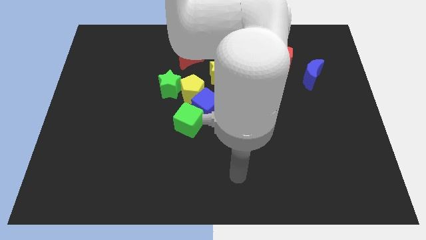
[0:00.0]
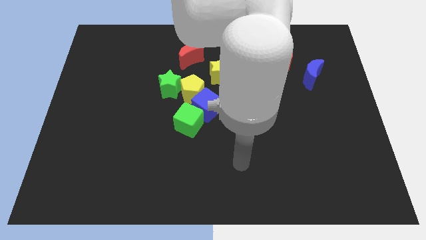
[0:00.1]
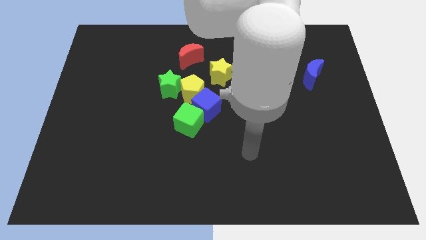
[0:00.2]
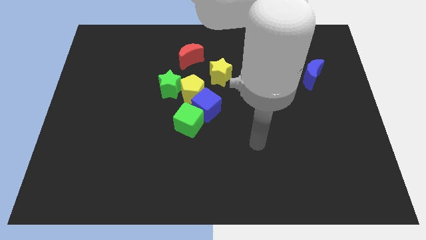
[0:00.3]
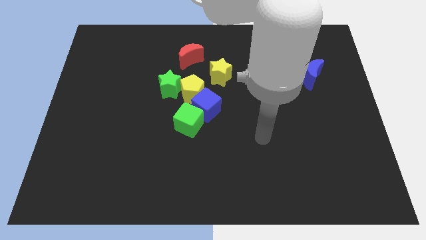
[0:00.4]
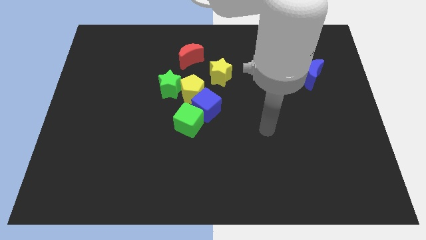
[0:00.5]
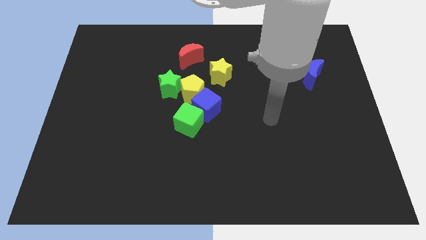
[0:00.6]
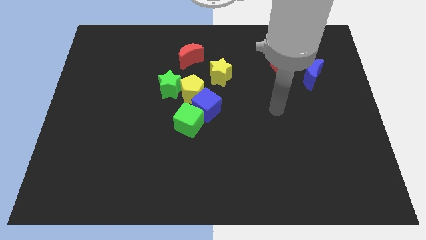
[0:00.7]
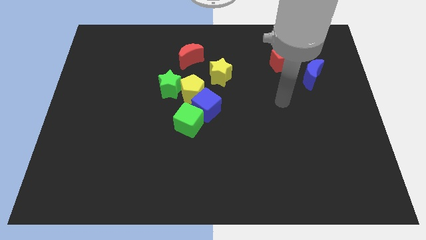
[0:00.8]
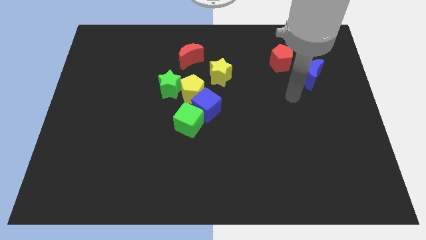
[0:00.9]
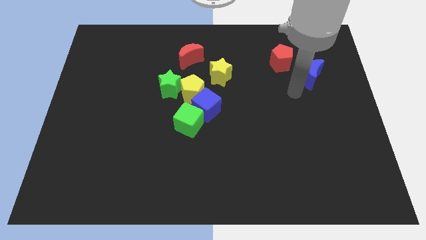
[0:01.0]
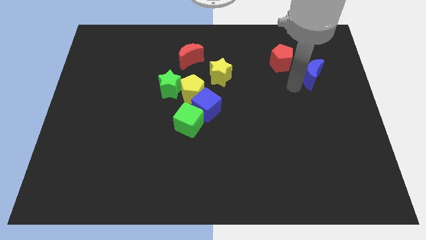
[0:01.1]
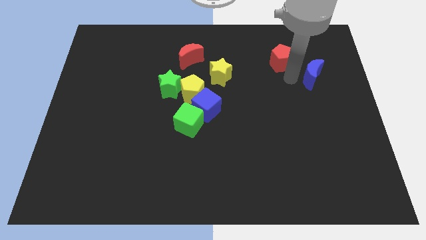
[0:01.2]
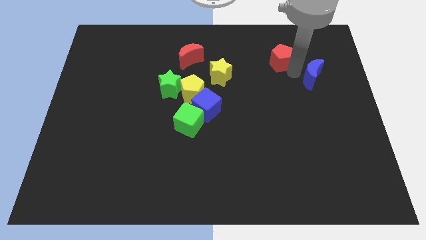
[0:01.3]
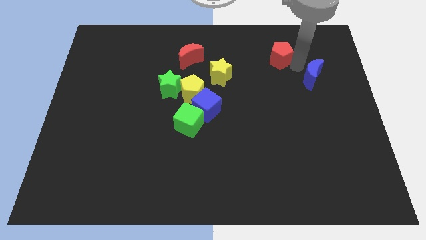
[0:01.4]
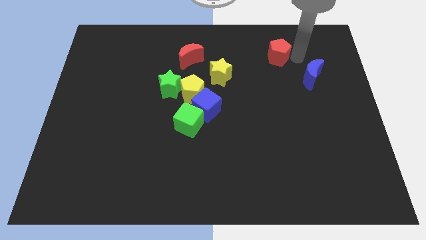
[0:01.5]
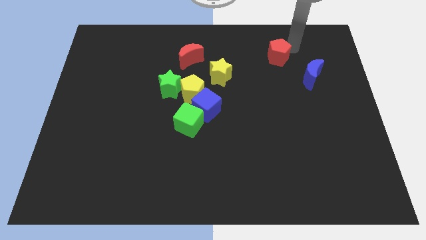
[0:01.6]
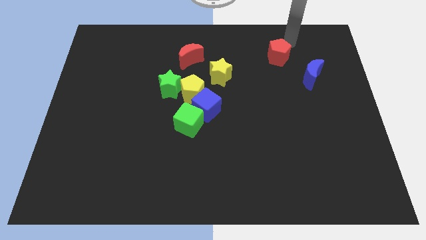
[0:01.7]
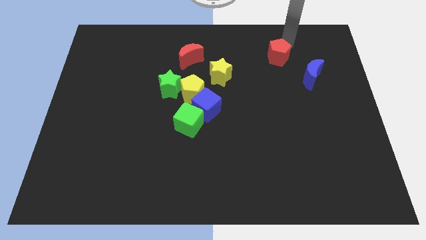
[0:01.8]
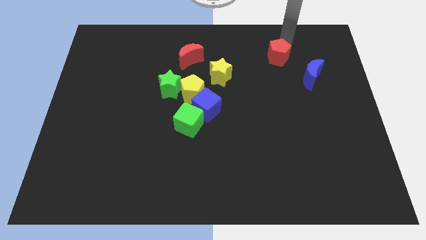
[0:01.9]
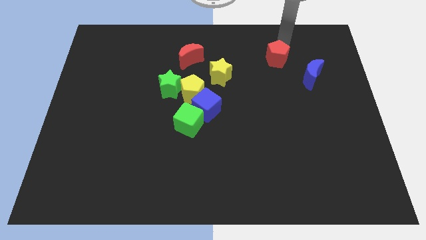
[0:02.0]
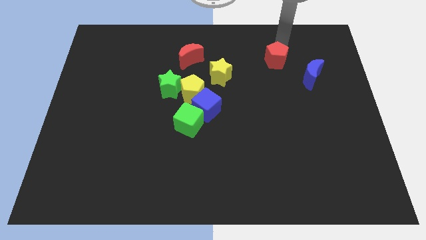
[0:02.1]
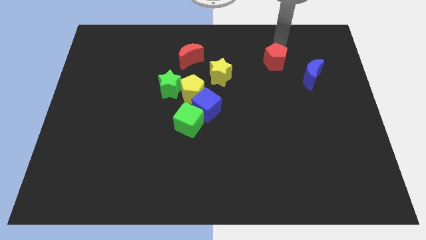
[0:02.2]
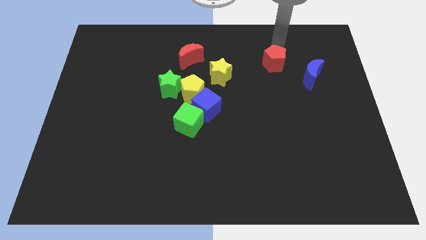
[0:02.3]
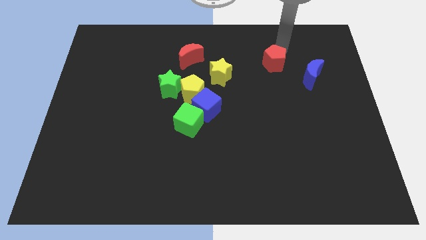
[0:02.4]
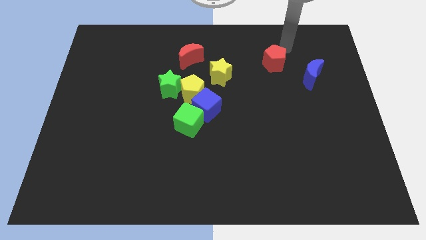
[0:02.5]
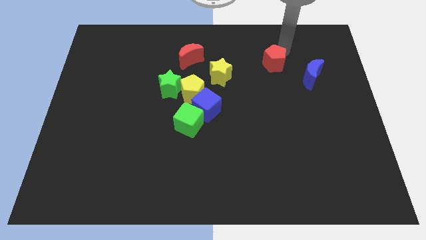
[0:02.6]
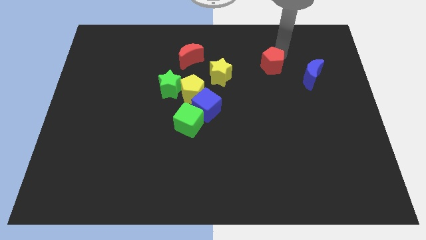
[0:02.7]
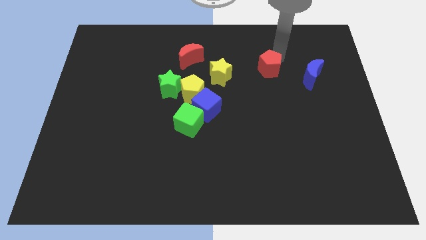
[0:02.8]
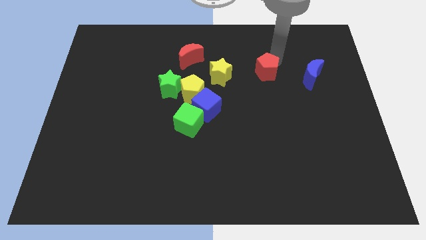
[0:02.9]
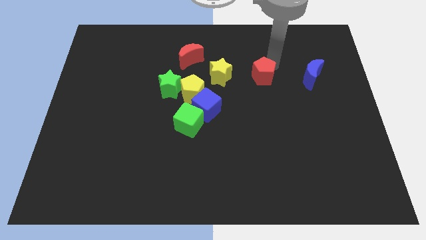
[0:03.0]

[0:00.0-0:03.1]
push the red pentagon downwards and to the left somewhat

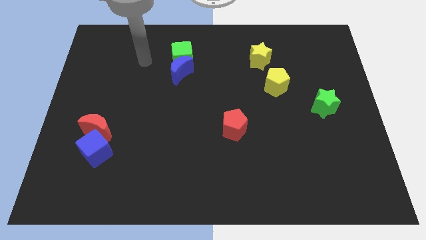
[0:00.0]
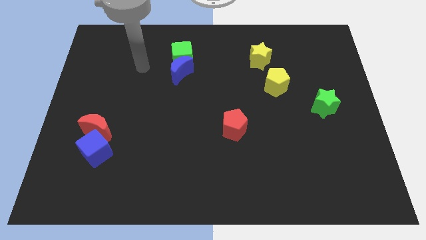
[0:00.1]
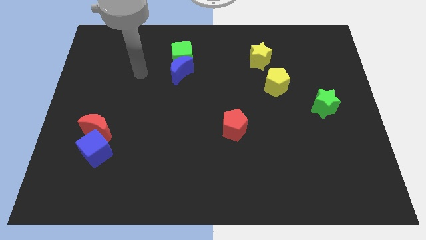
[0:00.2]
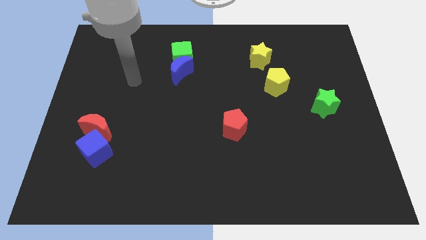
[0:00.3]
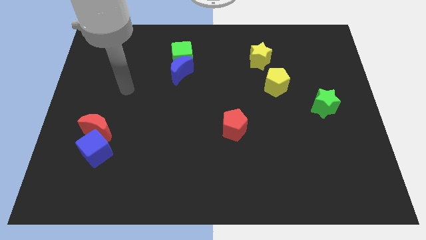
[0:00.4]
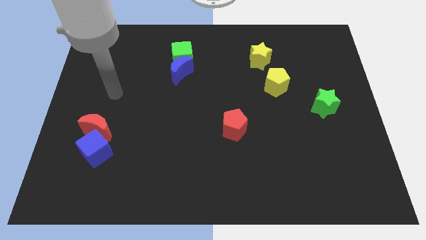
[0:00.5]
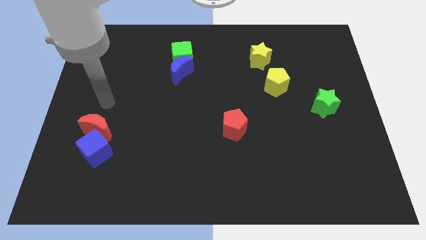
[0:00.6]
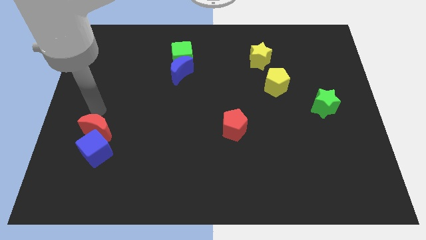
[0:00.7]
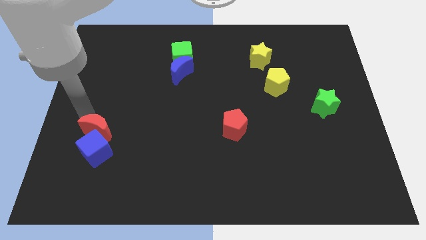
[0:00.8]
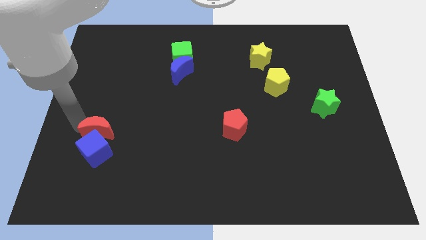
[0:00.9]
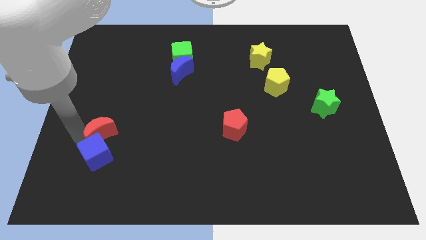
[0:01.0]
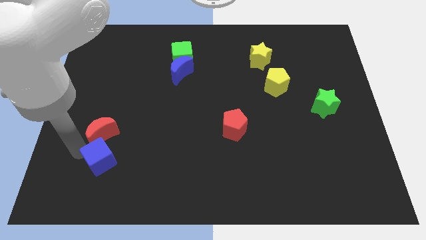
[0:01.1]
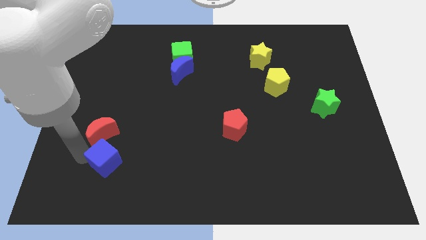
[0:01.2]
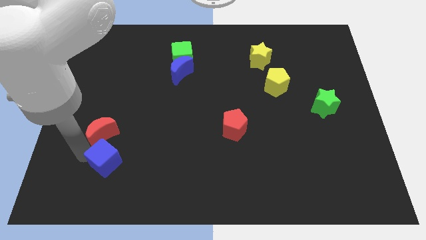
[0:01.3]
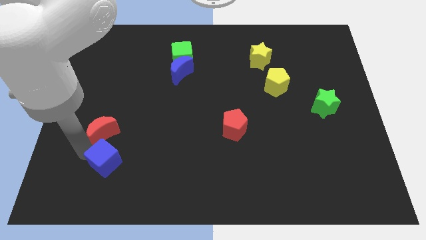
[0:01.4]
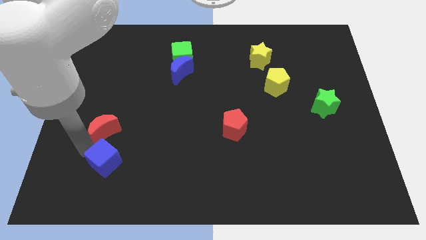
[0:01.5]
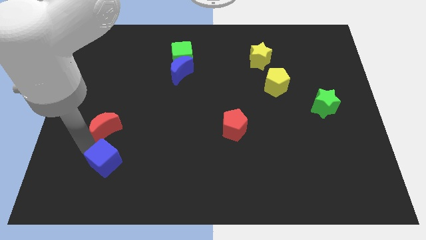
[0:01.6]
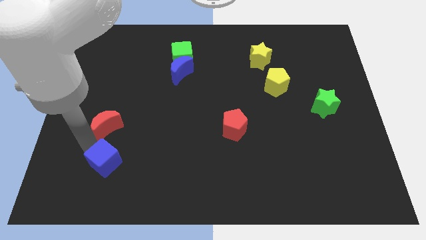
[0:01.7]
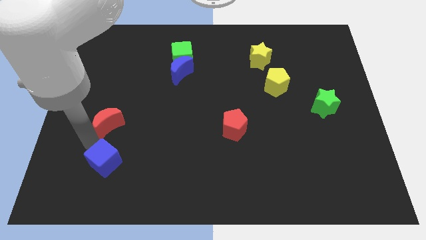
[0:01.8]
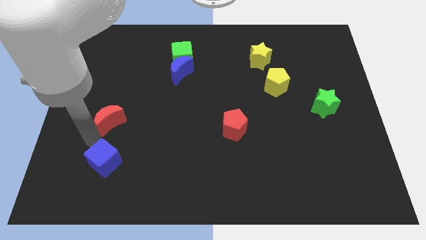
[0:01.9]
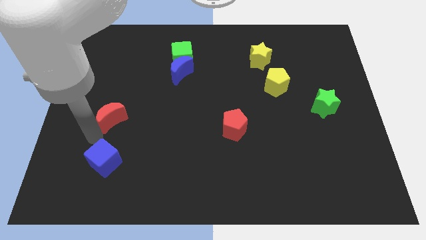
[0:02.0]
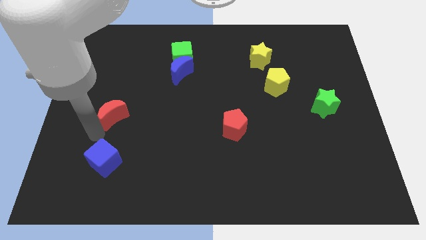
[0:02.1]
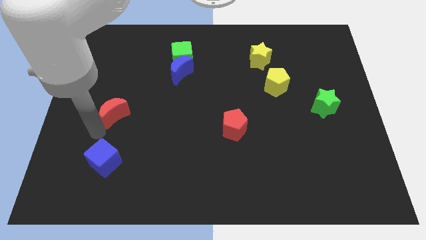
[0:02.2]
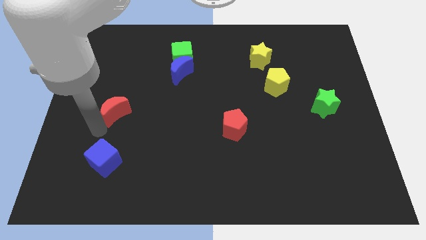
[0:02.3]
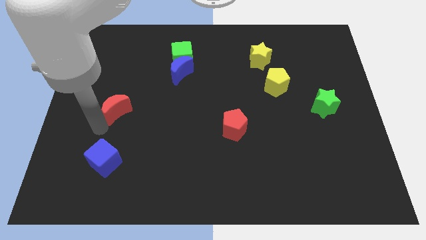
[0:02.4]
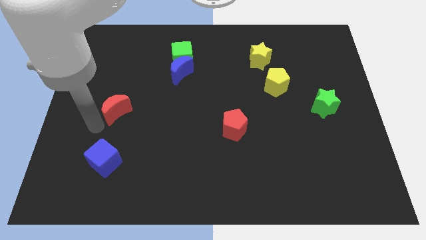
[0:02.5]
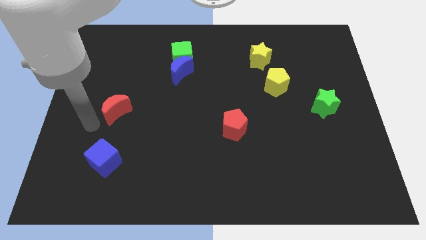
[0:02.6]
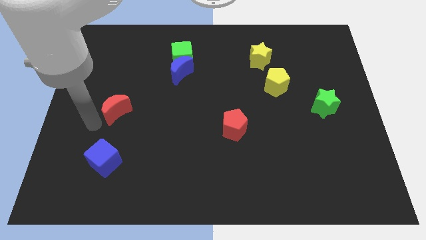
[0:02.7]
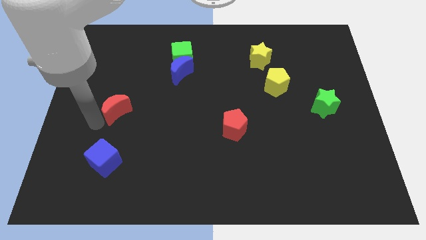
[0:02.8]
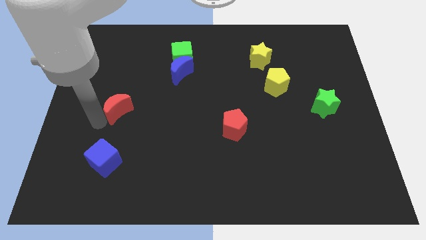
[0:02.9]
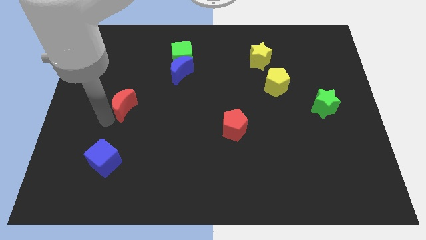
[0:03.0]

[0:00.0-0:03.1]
slide the red moon up and then right a bit

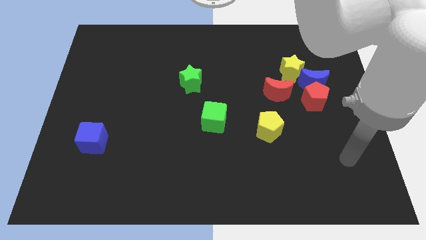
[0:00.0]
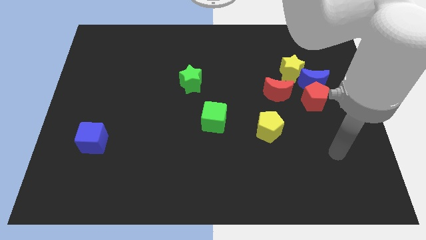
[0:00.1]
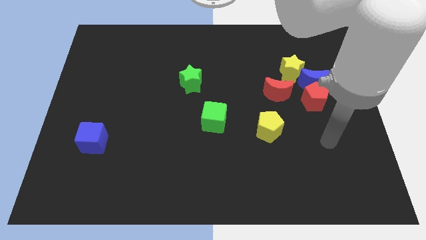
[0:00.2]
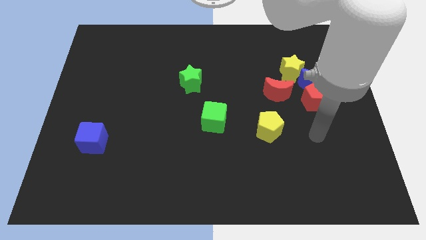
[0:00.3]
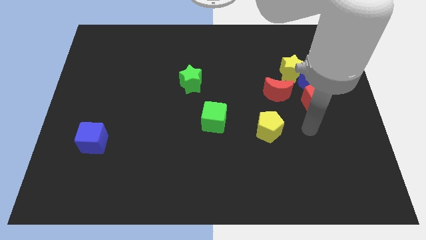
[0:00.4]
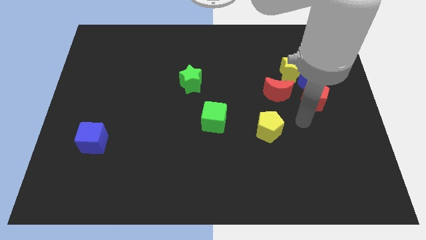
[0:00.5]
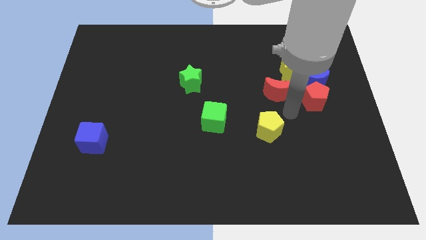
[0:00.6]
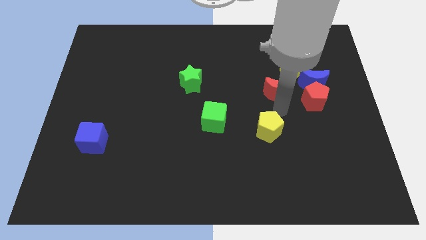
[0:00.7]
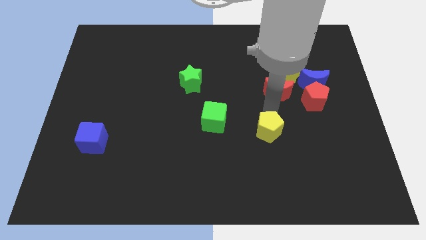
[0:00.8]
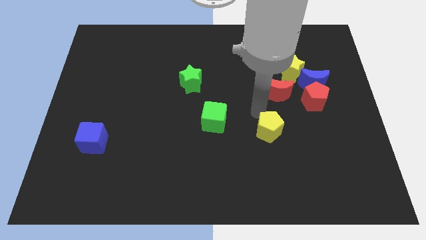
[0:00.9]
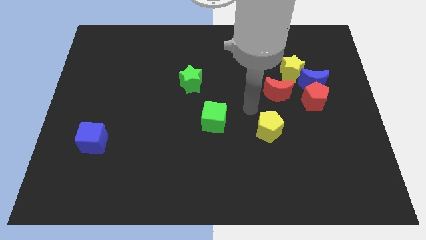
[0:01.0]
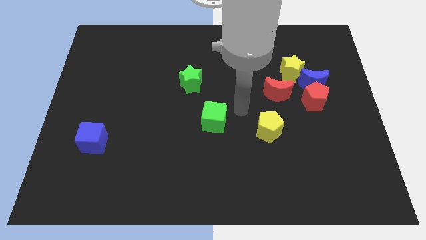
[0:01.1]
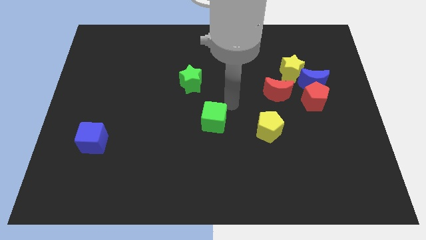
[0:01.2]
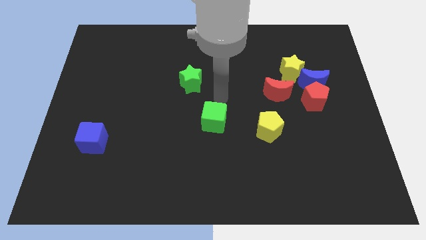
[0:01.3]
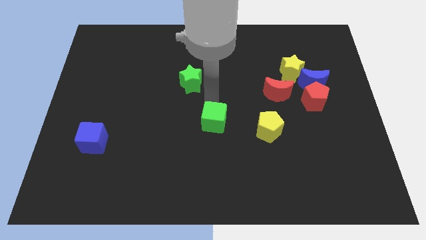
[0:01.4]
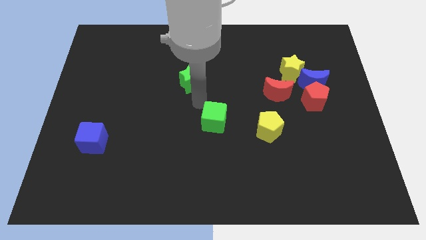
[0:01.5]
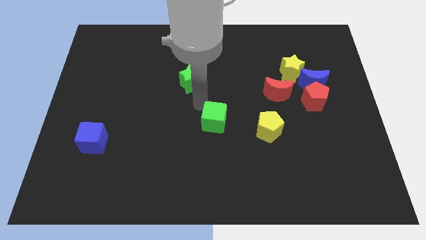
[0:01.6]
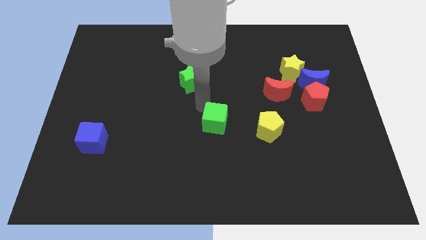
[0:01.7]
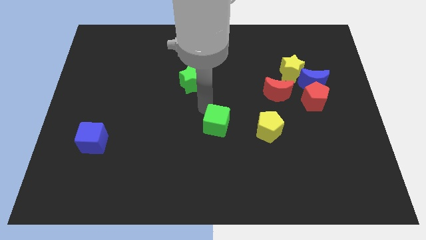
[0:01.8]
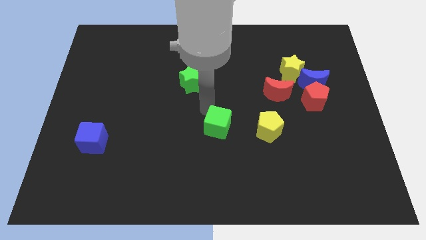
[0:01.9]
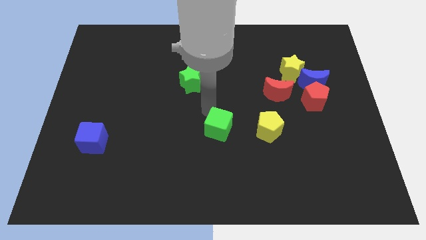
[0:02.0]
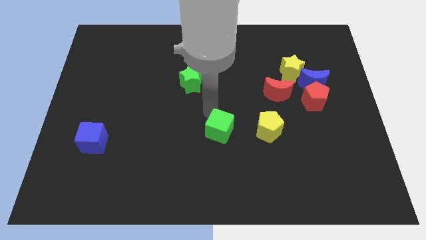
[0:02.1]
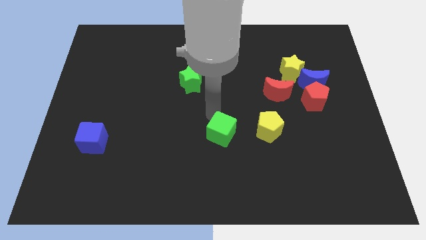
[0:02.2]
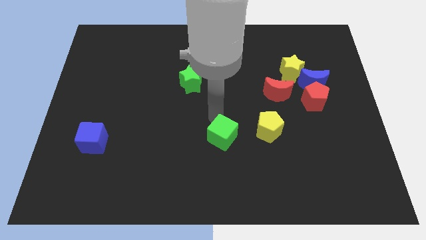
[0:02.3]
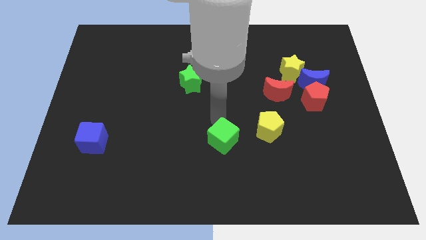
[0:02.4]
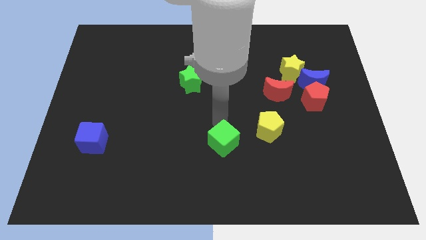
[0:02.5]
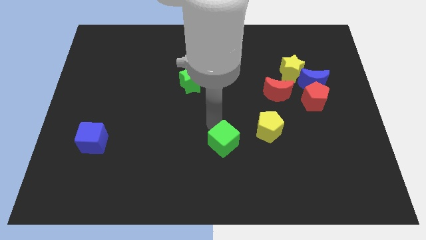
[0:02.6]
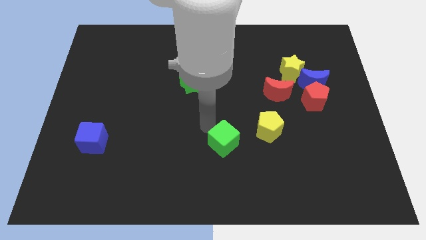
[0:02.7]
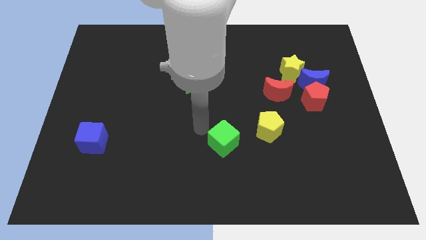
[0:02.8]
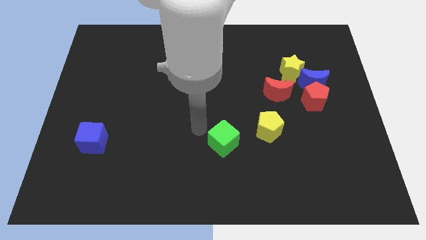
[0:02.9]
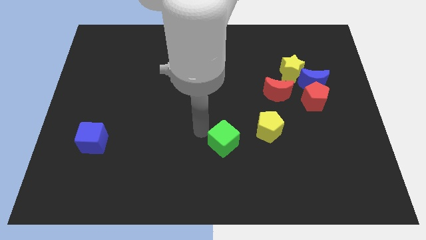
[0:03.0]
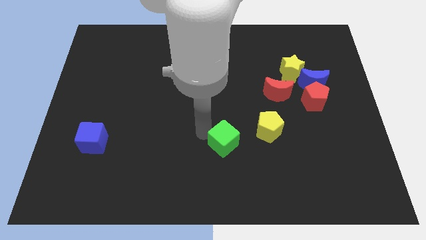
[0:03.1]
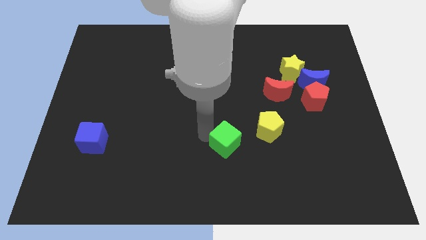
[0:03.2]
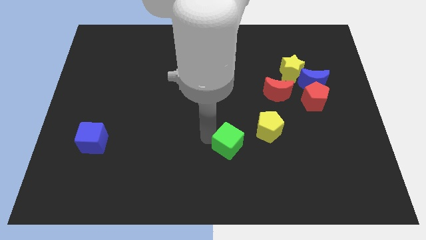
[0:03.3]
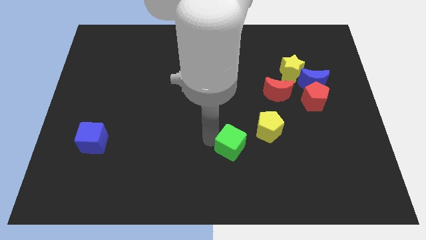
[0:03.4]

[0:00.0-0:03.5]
move the green cube a little bit down and then to the right
